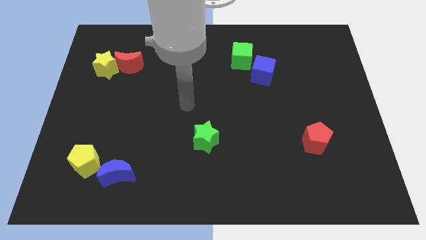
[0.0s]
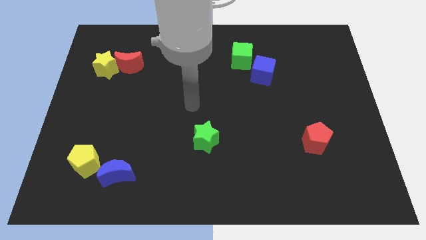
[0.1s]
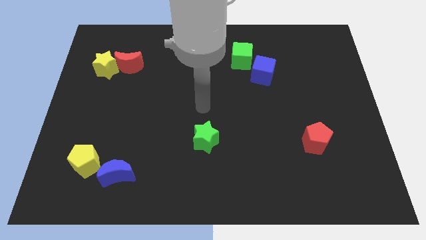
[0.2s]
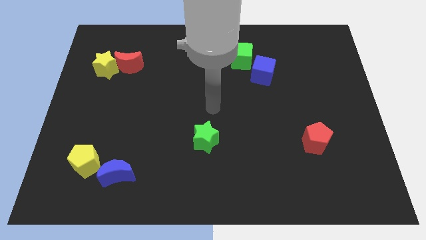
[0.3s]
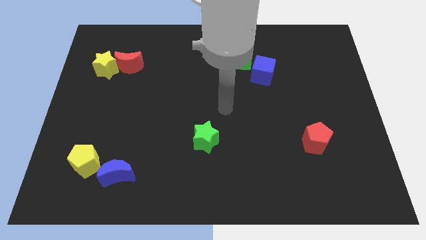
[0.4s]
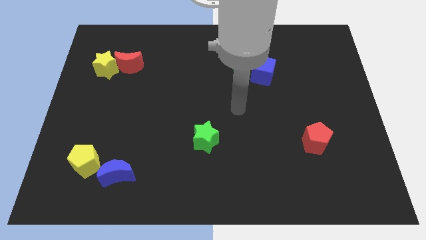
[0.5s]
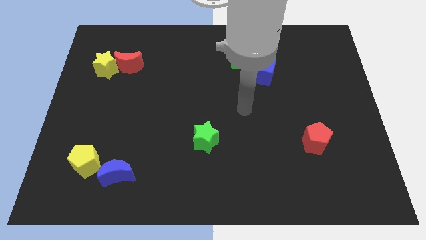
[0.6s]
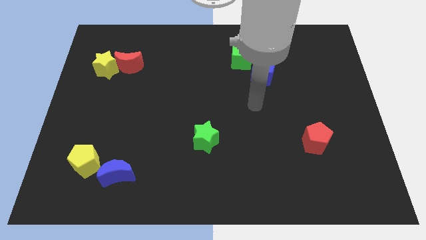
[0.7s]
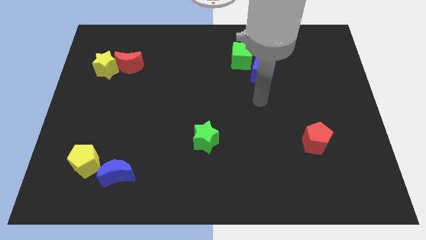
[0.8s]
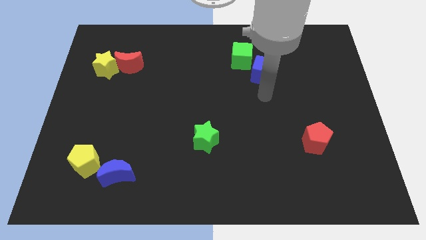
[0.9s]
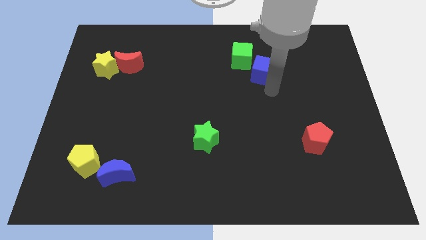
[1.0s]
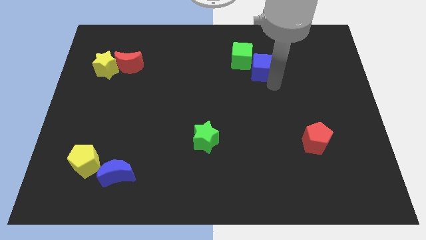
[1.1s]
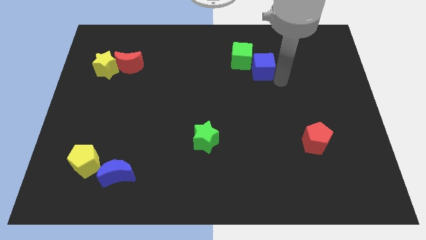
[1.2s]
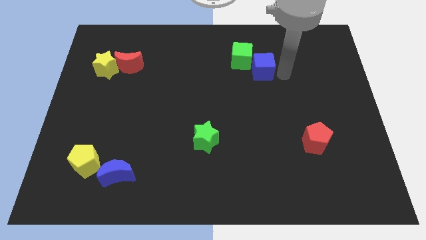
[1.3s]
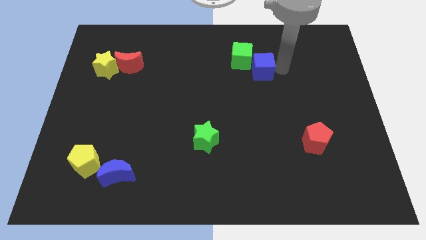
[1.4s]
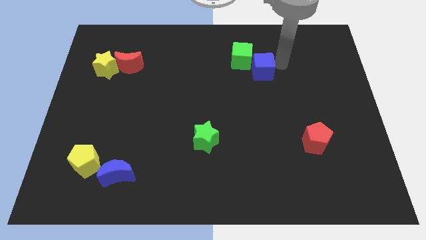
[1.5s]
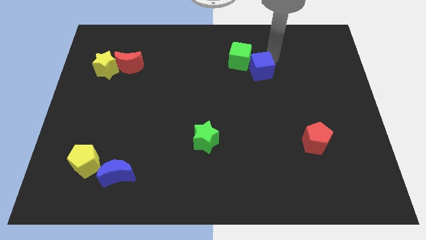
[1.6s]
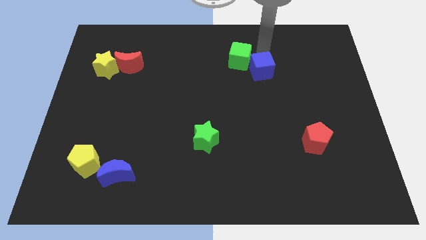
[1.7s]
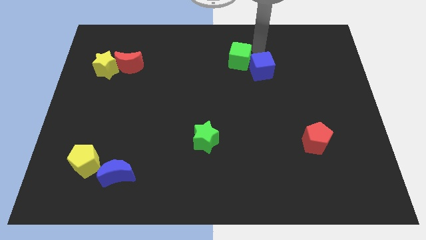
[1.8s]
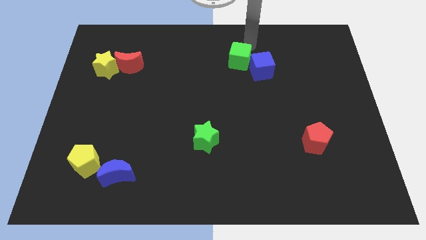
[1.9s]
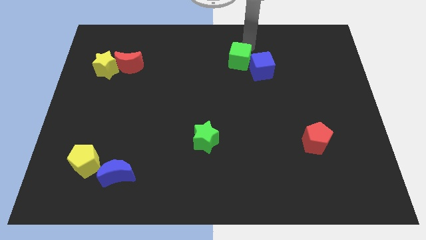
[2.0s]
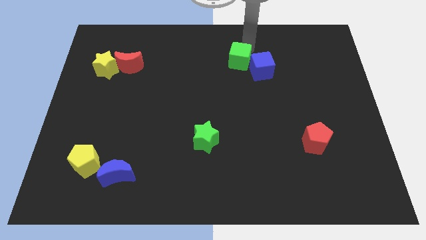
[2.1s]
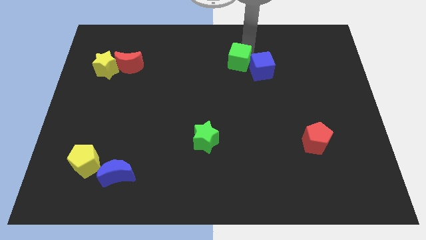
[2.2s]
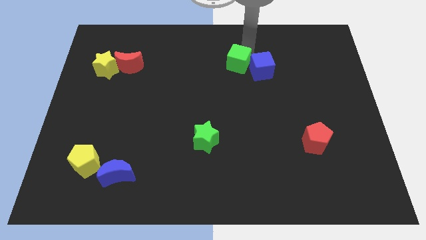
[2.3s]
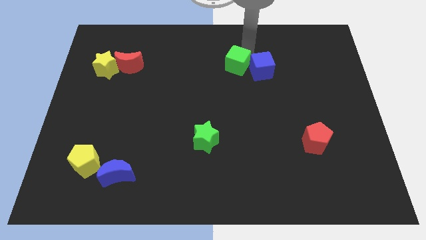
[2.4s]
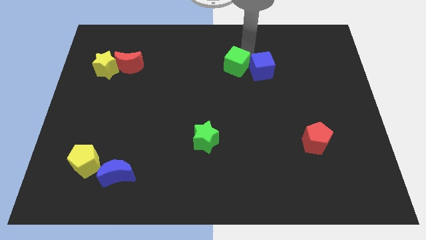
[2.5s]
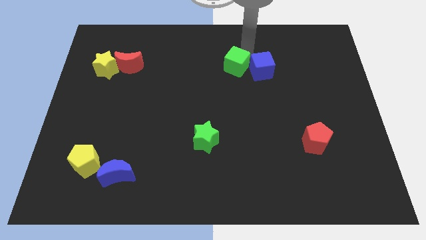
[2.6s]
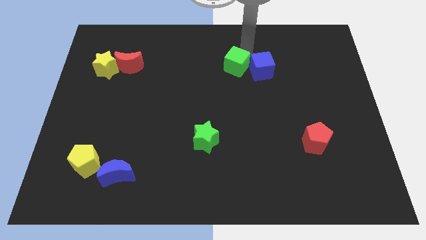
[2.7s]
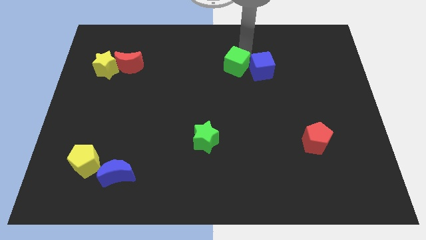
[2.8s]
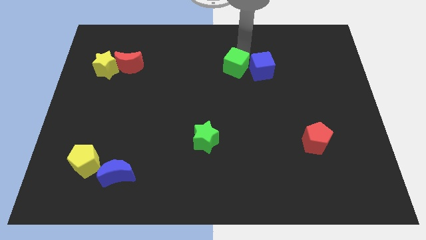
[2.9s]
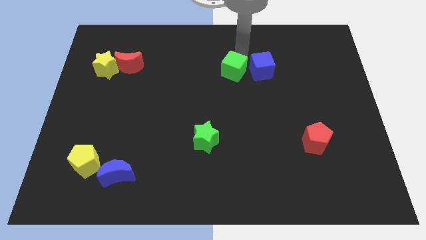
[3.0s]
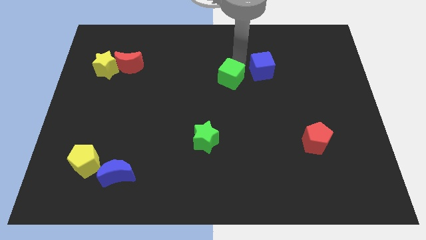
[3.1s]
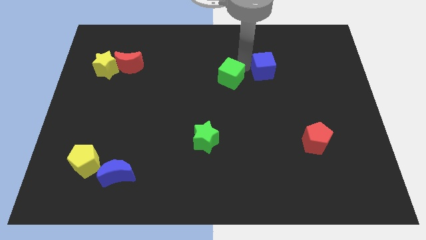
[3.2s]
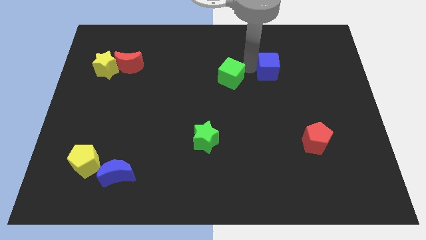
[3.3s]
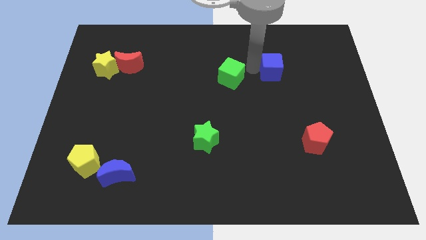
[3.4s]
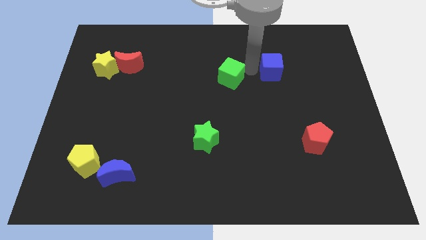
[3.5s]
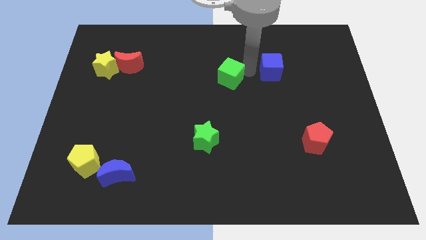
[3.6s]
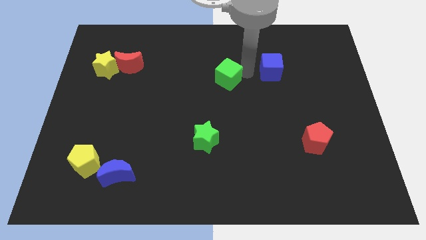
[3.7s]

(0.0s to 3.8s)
move the green cube slightly down and left diagonally

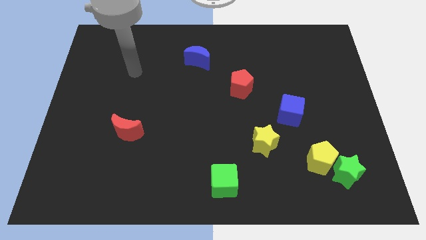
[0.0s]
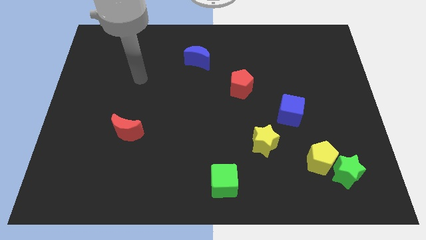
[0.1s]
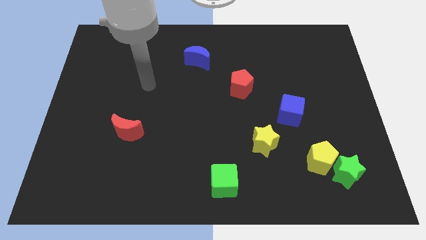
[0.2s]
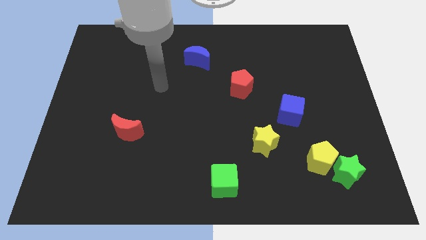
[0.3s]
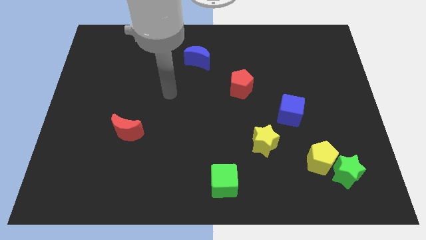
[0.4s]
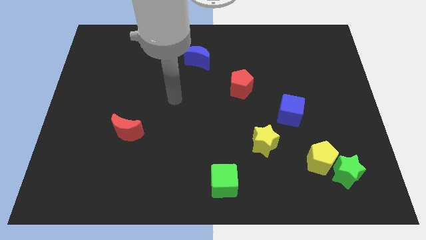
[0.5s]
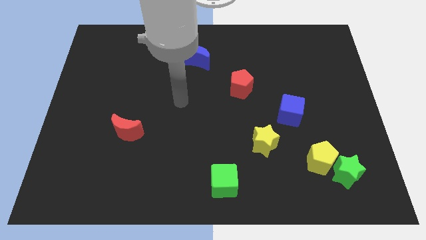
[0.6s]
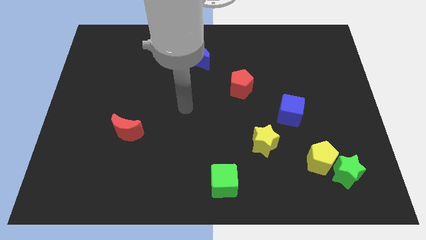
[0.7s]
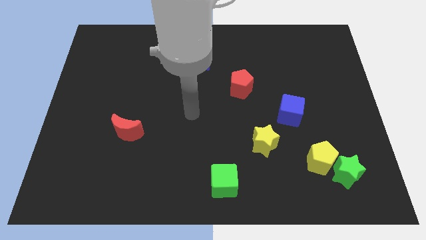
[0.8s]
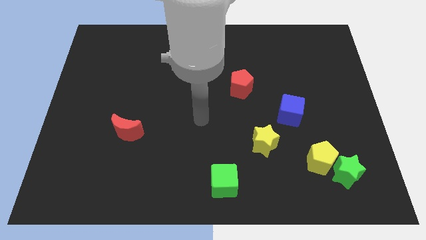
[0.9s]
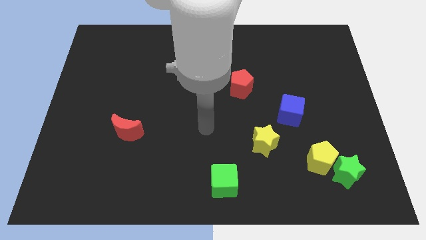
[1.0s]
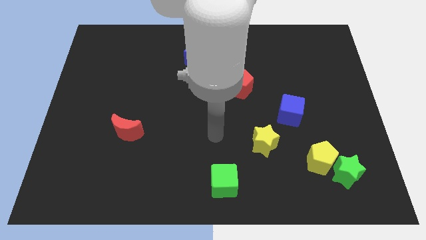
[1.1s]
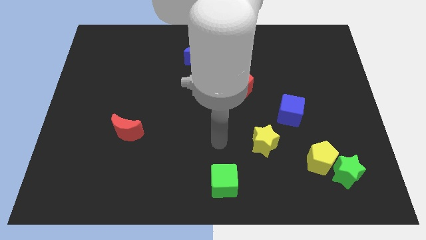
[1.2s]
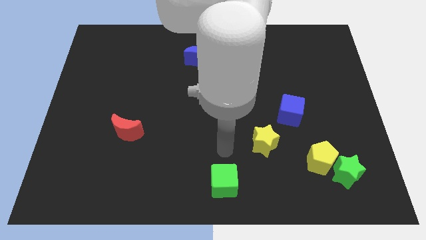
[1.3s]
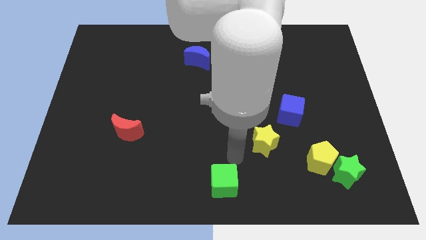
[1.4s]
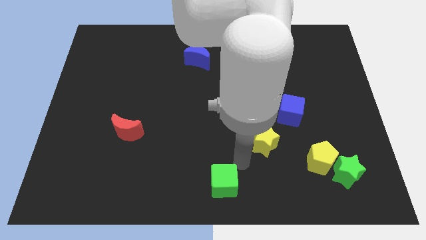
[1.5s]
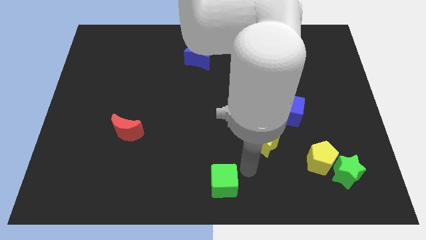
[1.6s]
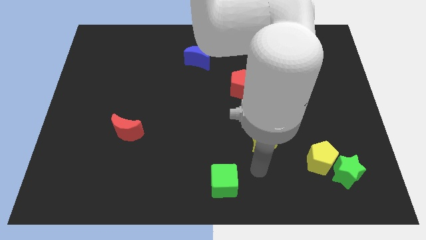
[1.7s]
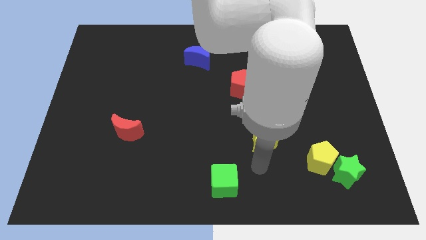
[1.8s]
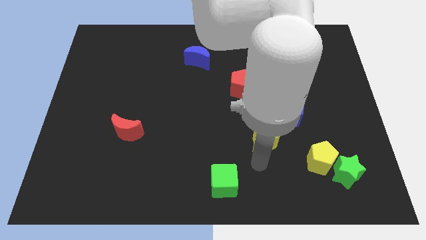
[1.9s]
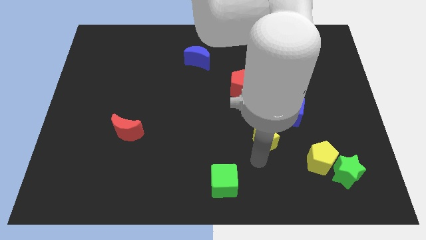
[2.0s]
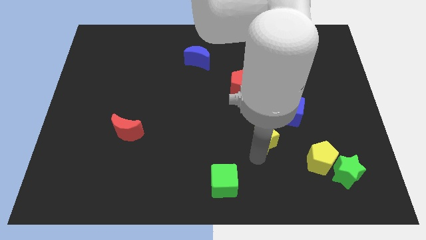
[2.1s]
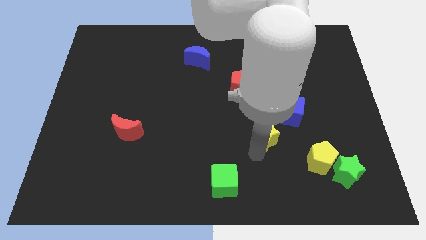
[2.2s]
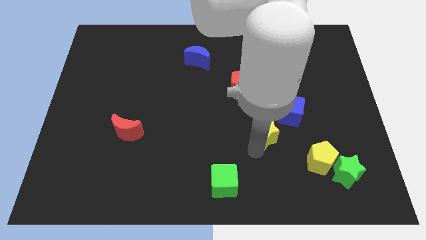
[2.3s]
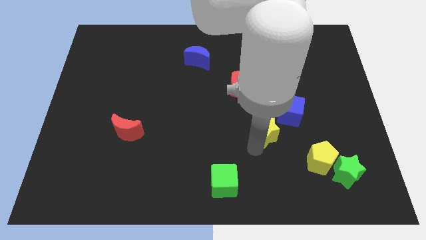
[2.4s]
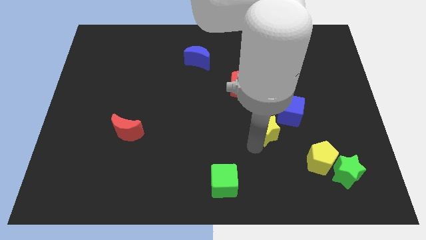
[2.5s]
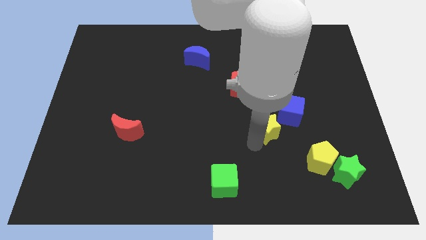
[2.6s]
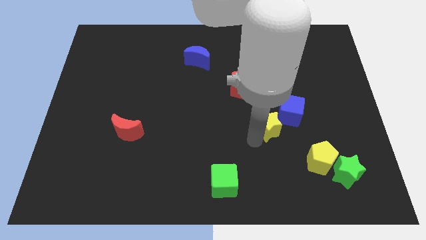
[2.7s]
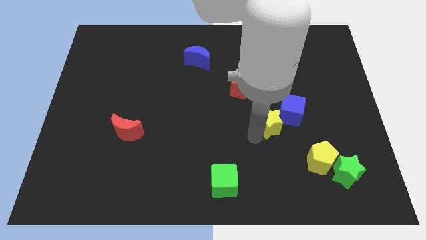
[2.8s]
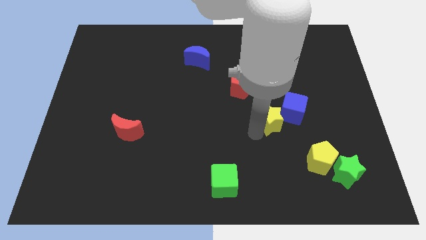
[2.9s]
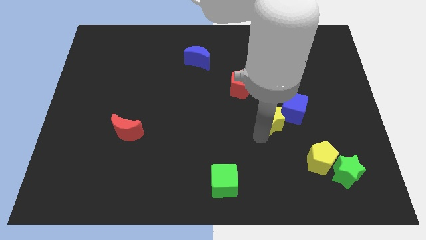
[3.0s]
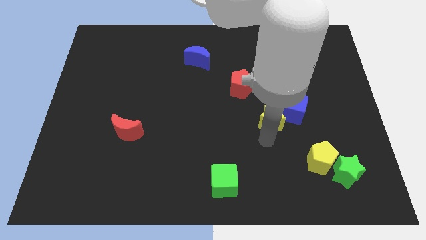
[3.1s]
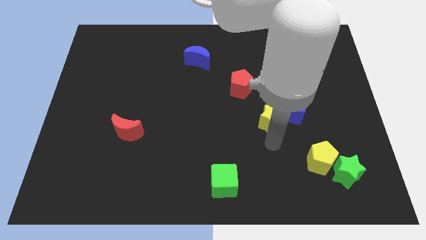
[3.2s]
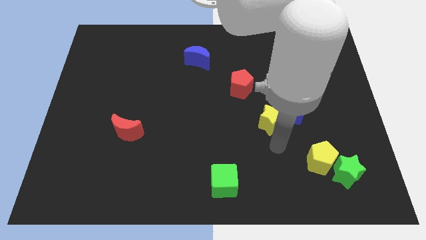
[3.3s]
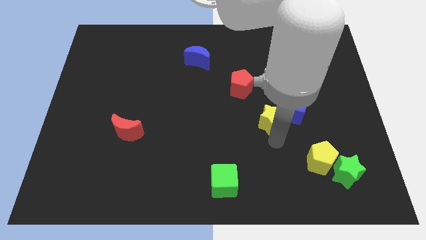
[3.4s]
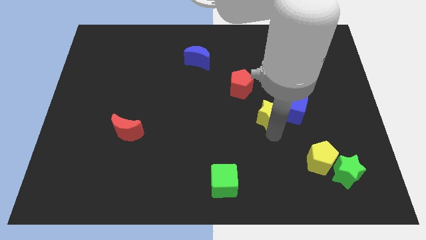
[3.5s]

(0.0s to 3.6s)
push the yellow star a bit up

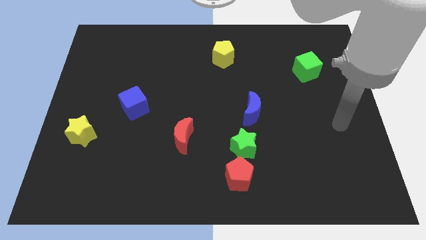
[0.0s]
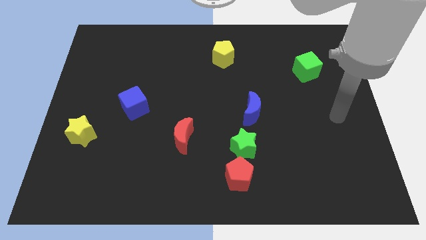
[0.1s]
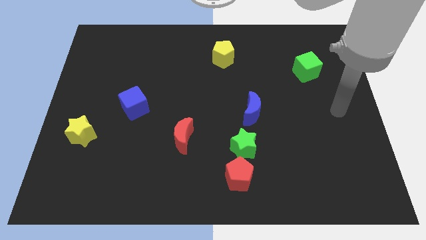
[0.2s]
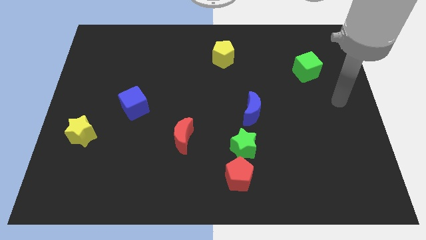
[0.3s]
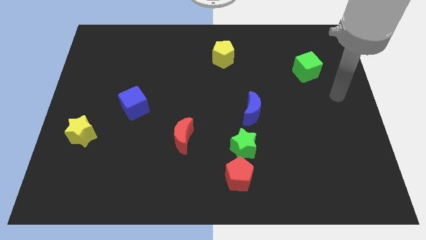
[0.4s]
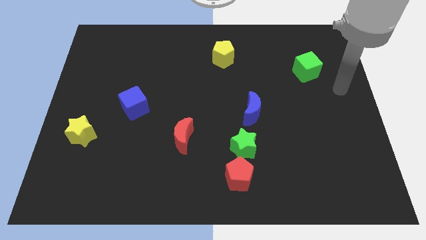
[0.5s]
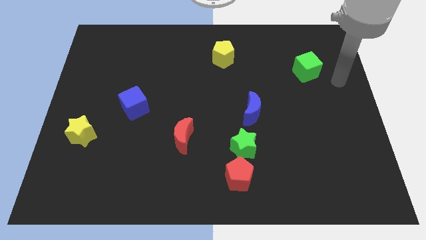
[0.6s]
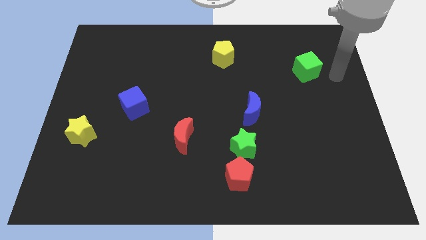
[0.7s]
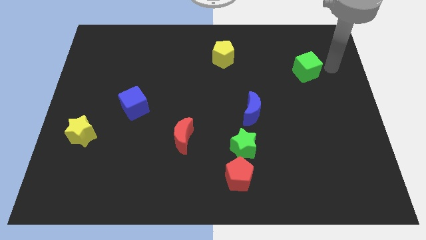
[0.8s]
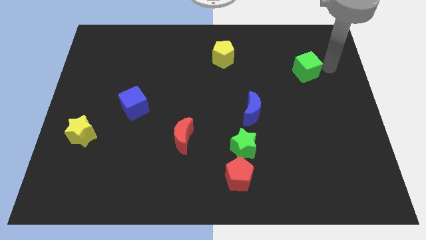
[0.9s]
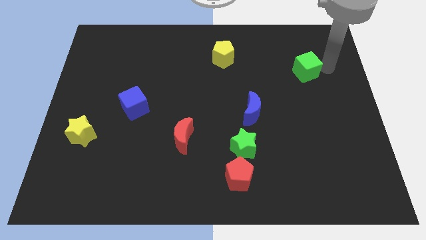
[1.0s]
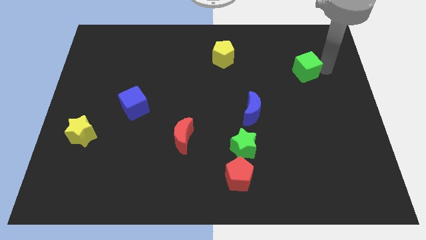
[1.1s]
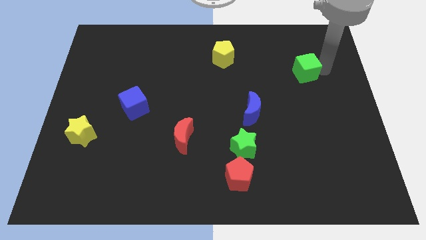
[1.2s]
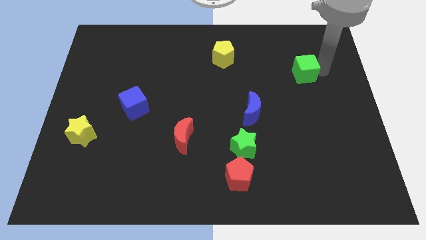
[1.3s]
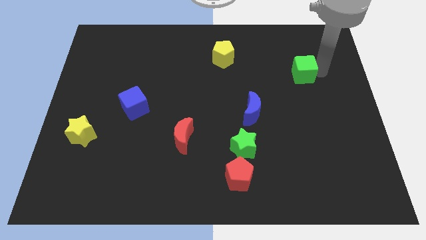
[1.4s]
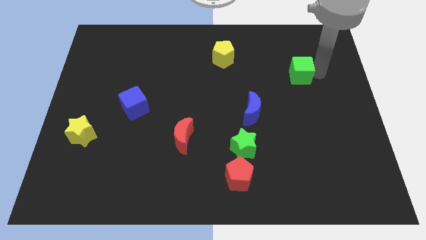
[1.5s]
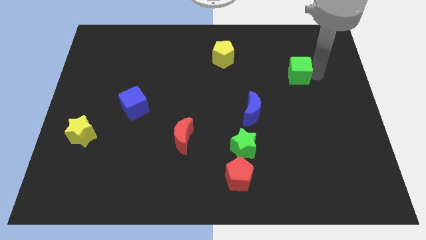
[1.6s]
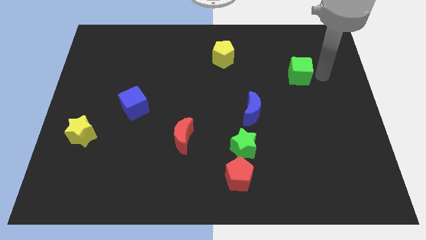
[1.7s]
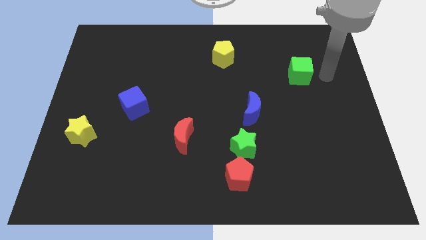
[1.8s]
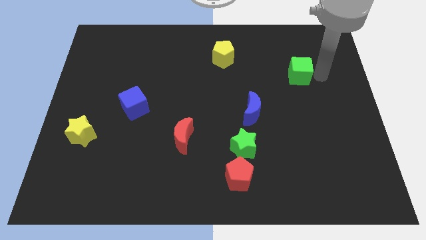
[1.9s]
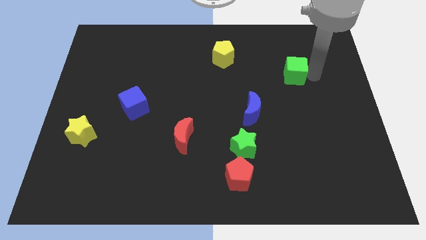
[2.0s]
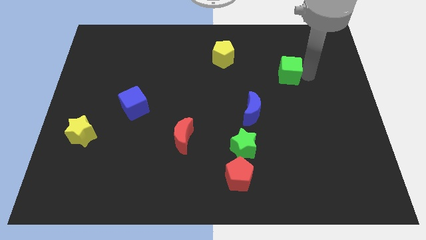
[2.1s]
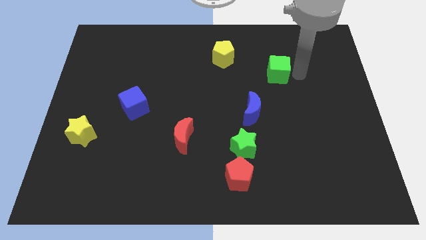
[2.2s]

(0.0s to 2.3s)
move the green cube to the left slightly
